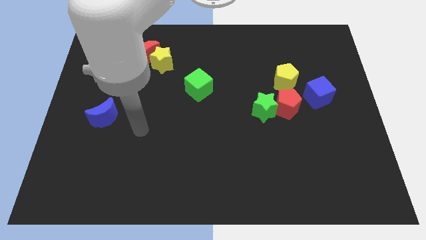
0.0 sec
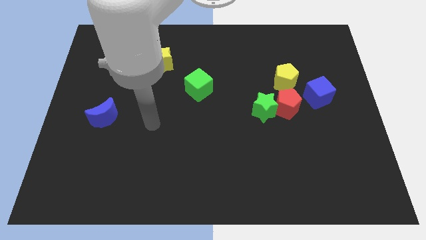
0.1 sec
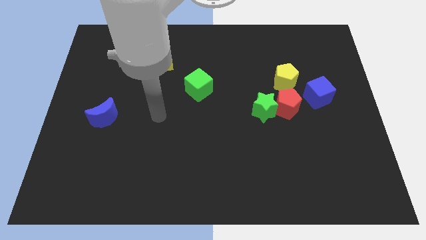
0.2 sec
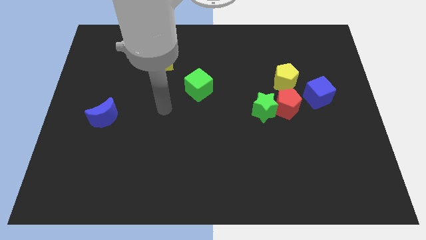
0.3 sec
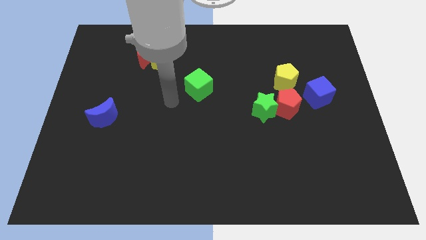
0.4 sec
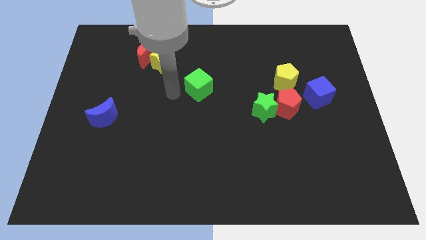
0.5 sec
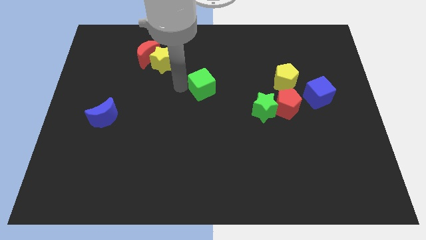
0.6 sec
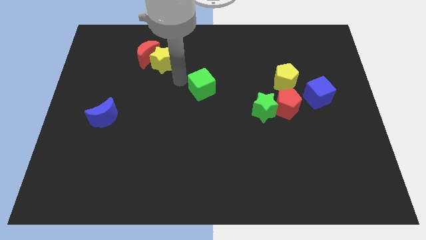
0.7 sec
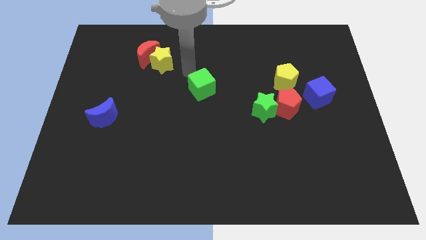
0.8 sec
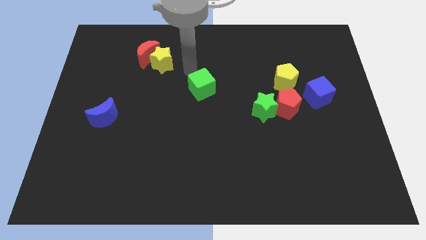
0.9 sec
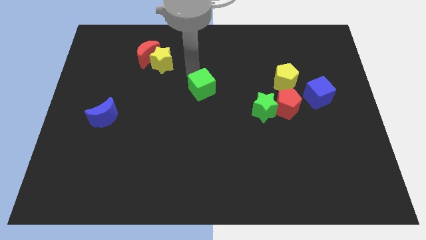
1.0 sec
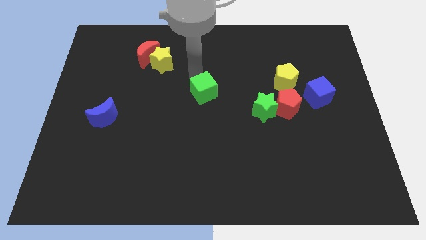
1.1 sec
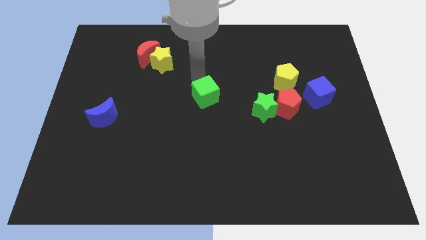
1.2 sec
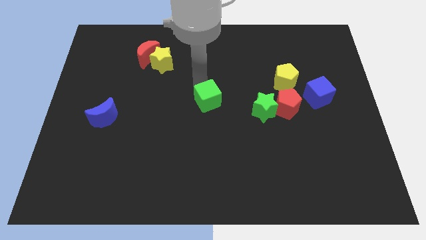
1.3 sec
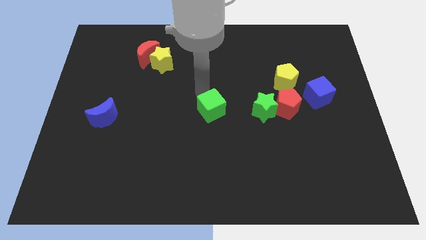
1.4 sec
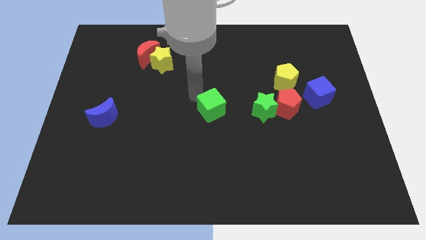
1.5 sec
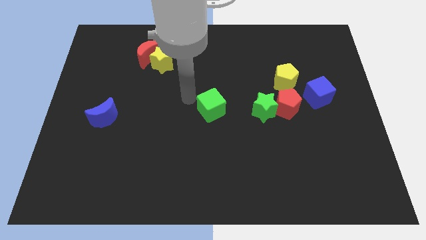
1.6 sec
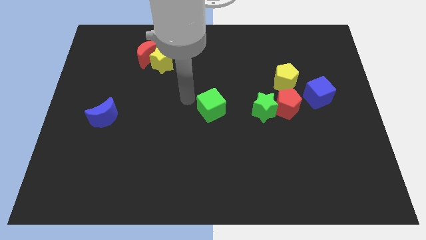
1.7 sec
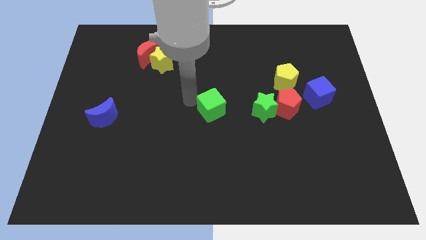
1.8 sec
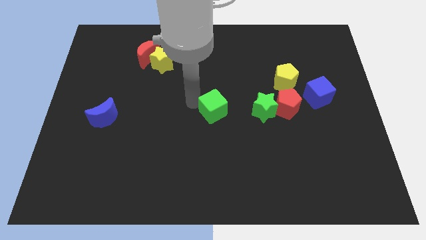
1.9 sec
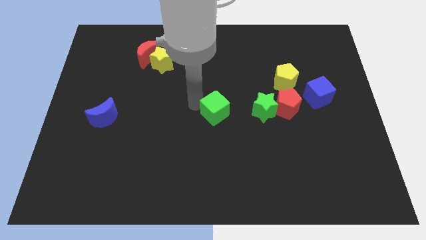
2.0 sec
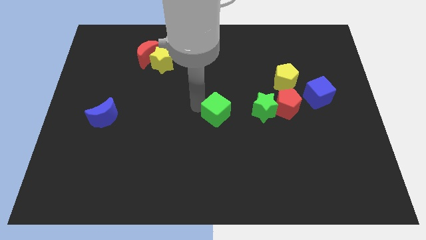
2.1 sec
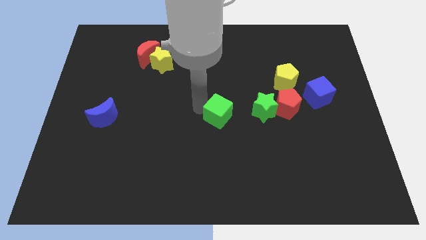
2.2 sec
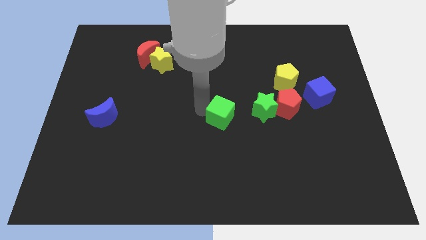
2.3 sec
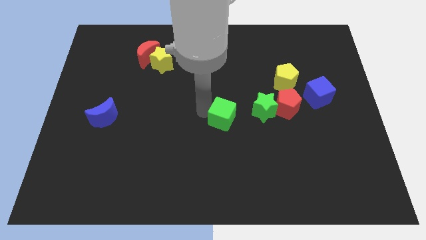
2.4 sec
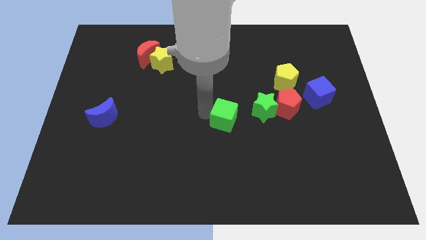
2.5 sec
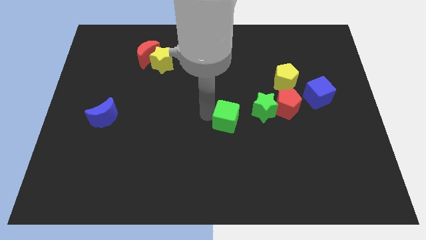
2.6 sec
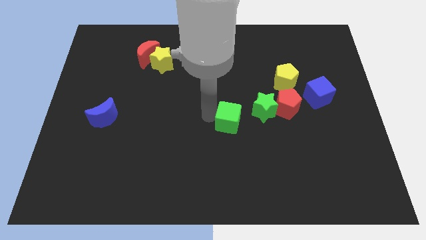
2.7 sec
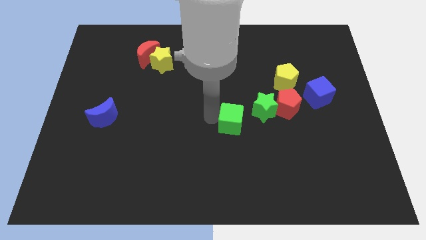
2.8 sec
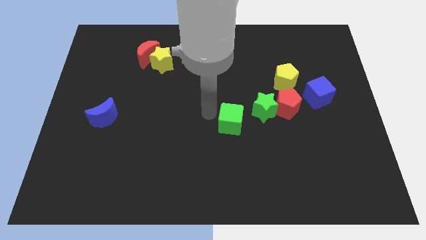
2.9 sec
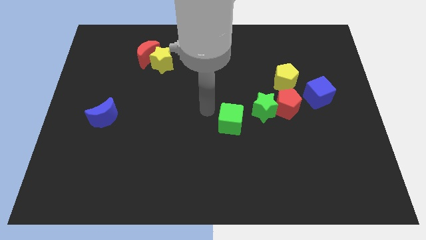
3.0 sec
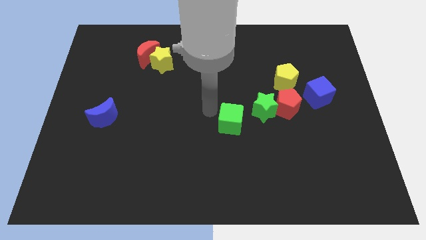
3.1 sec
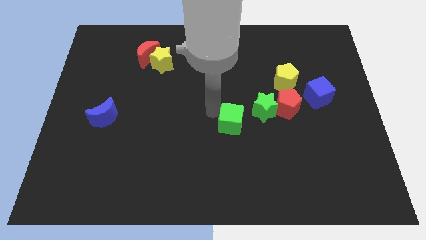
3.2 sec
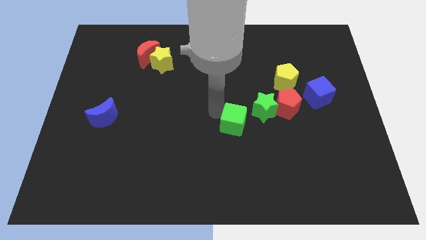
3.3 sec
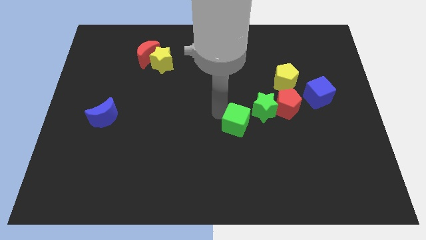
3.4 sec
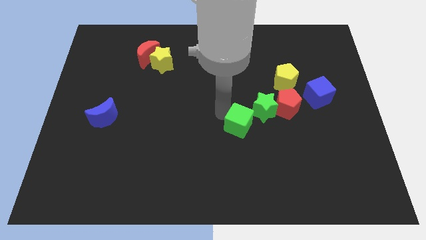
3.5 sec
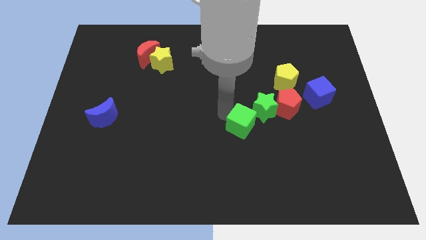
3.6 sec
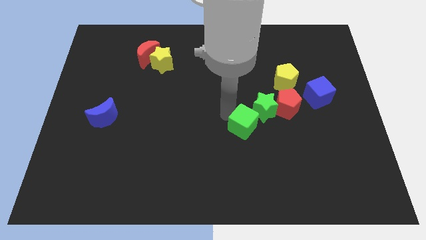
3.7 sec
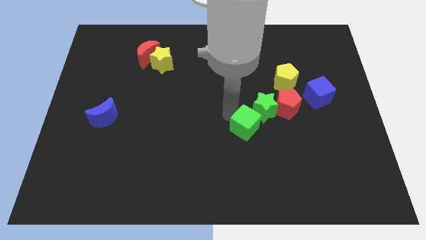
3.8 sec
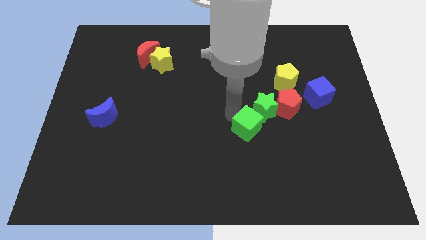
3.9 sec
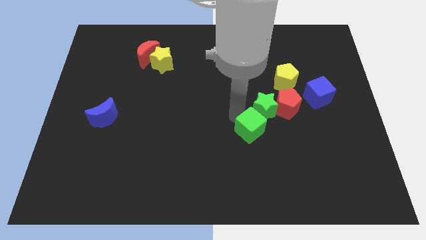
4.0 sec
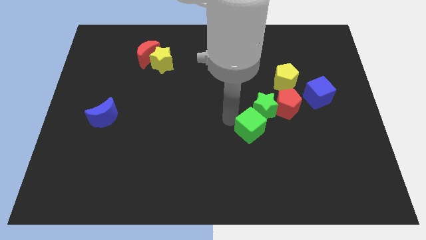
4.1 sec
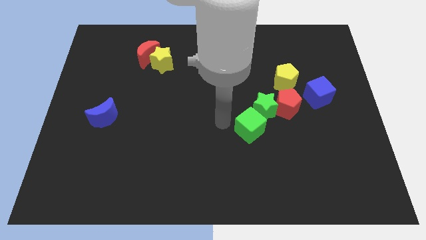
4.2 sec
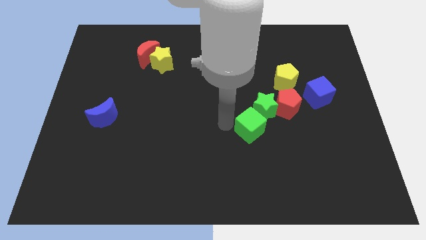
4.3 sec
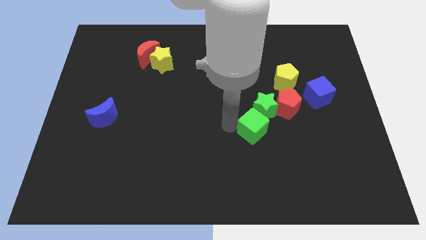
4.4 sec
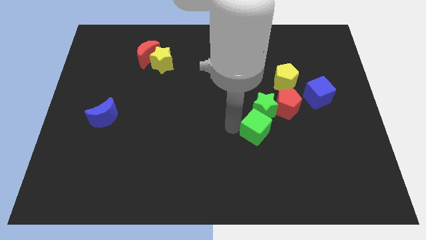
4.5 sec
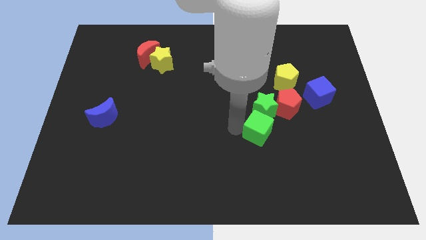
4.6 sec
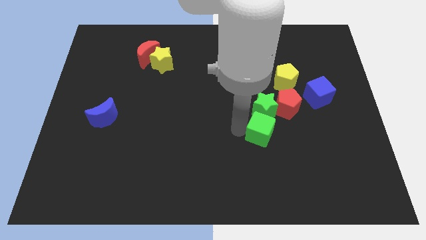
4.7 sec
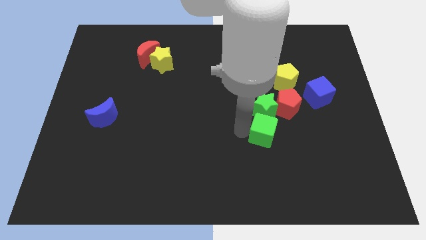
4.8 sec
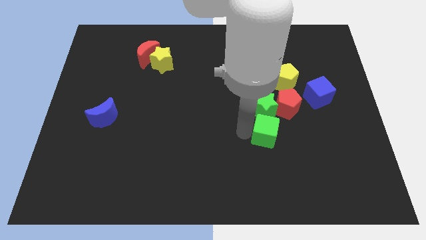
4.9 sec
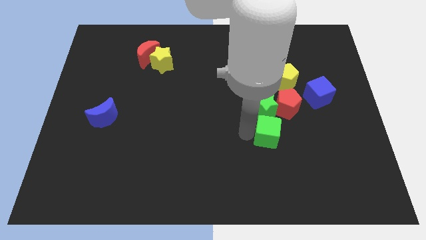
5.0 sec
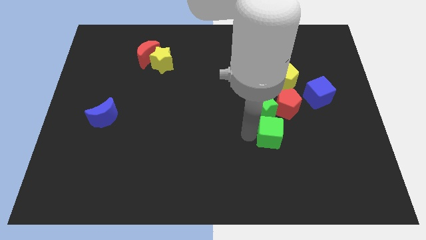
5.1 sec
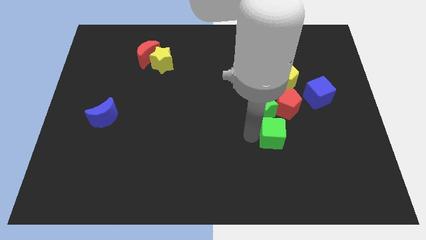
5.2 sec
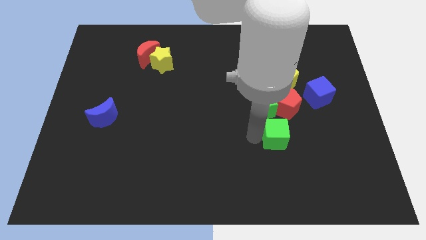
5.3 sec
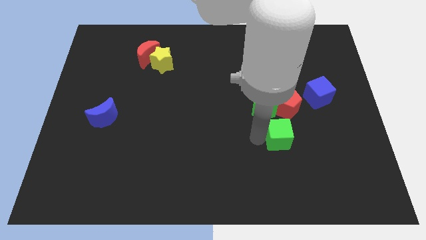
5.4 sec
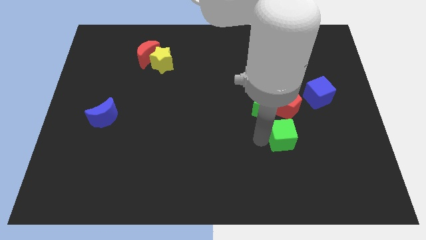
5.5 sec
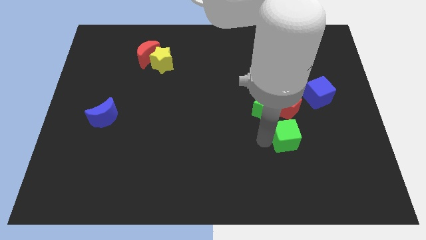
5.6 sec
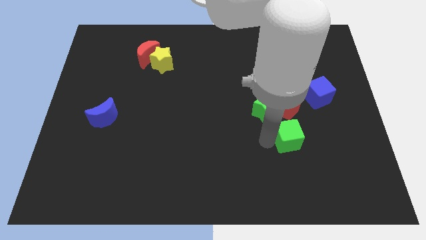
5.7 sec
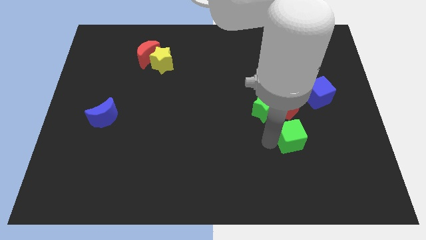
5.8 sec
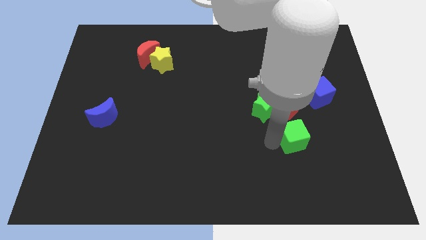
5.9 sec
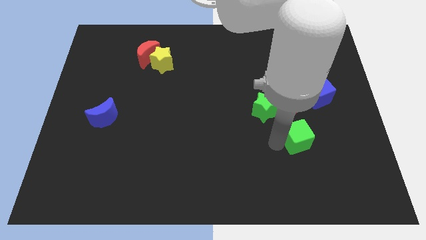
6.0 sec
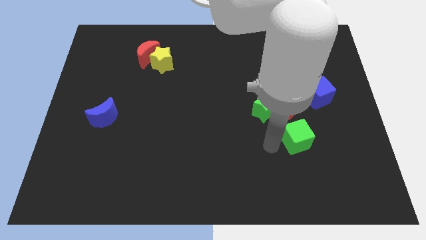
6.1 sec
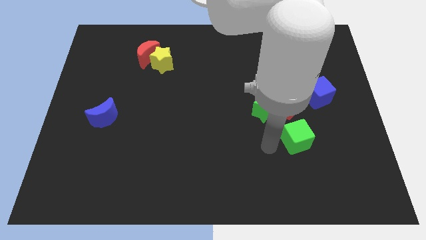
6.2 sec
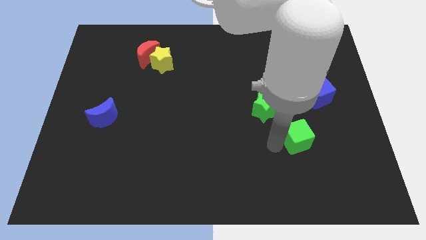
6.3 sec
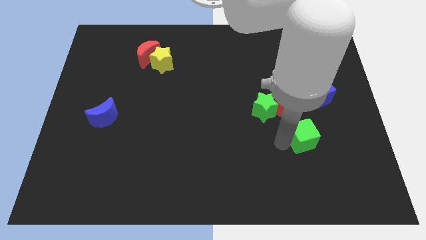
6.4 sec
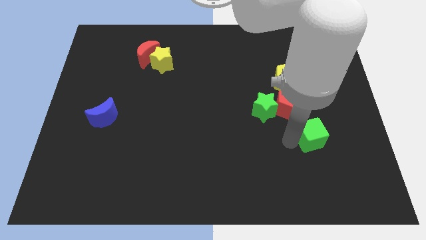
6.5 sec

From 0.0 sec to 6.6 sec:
move the green cube to the bottom of the blue cube

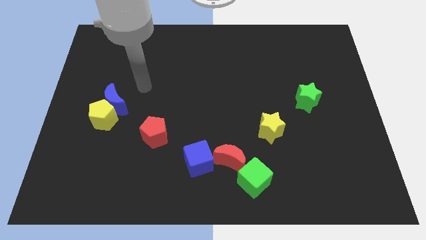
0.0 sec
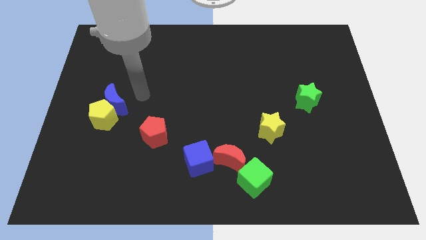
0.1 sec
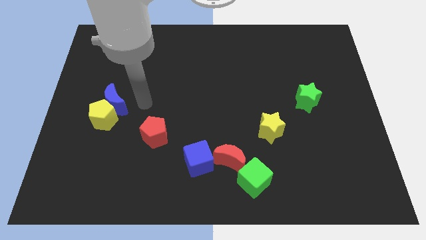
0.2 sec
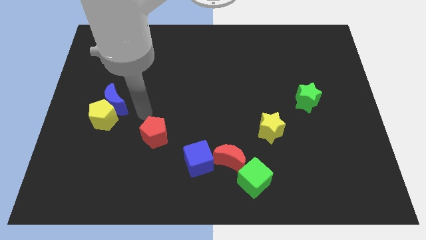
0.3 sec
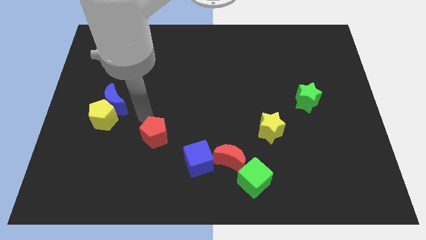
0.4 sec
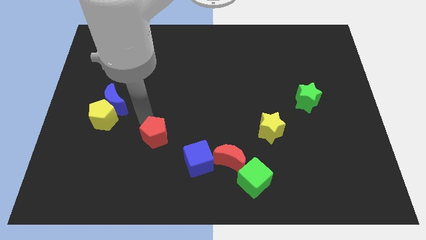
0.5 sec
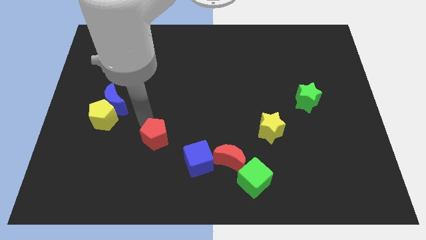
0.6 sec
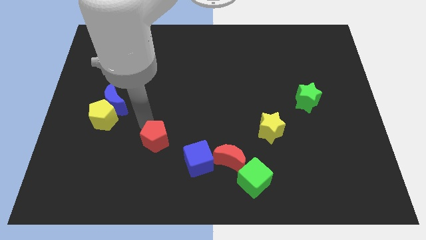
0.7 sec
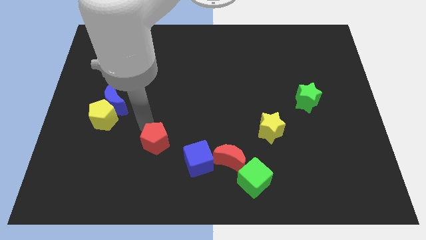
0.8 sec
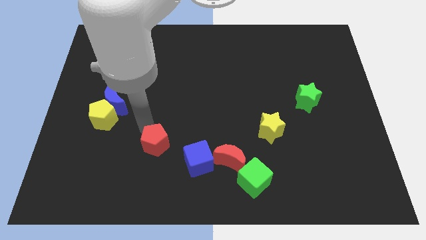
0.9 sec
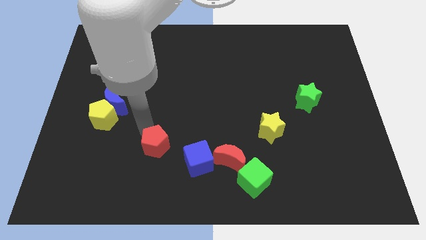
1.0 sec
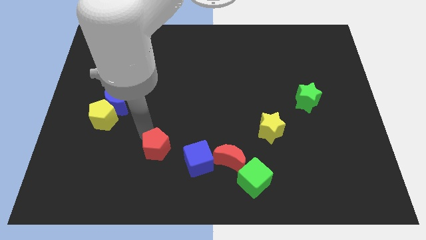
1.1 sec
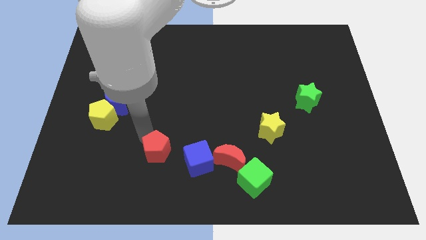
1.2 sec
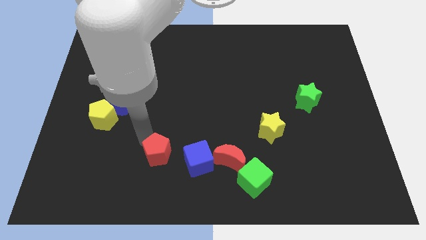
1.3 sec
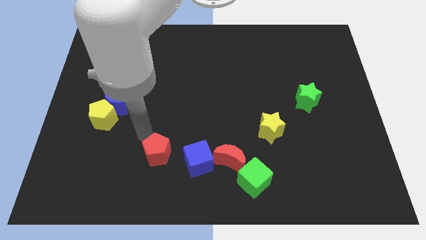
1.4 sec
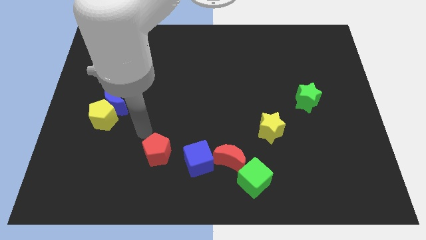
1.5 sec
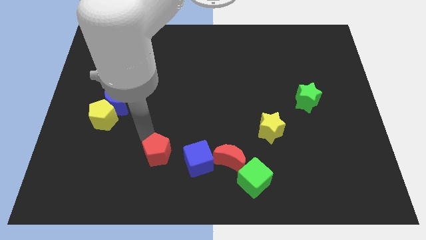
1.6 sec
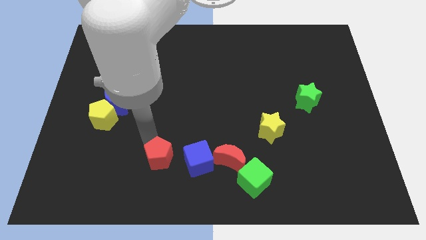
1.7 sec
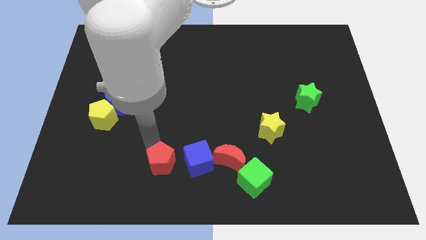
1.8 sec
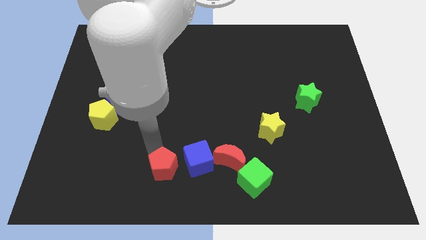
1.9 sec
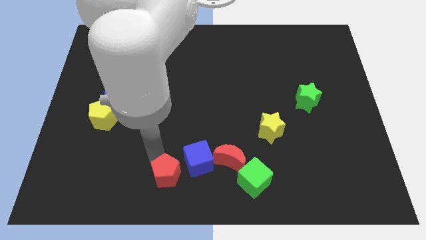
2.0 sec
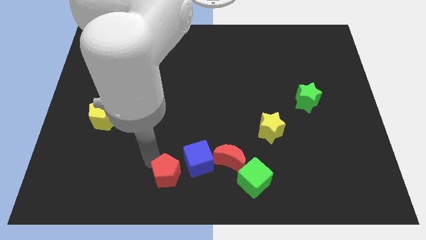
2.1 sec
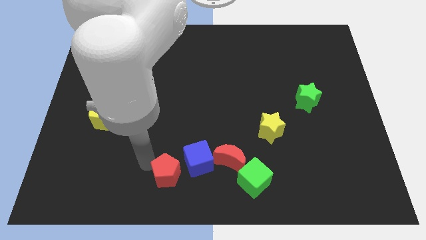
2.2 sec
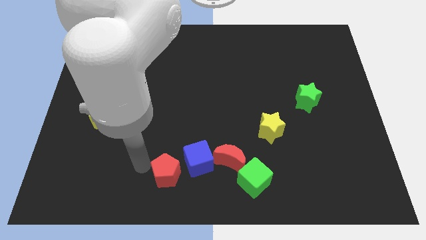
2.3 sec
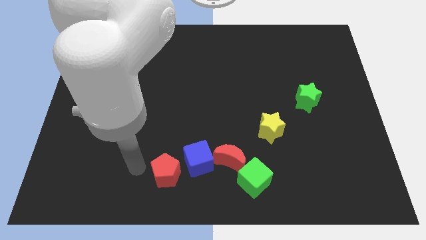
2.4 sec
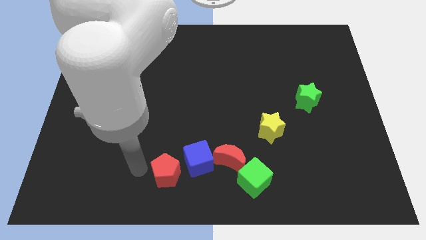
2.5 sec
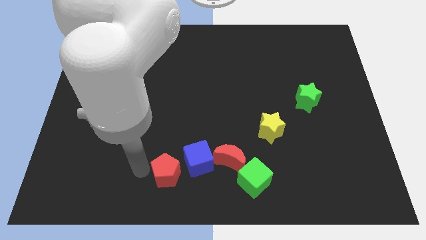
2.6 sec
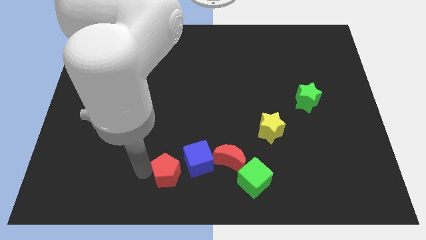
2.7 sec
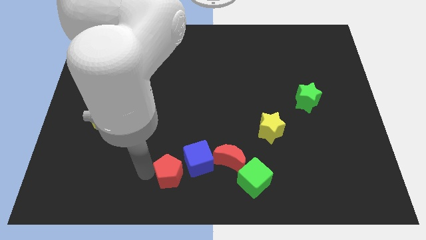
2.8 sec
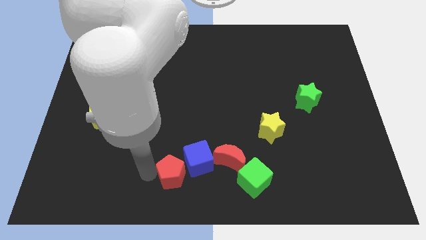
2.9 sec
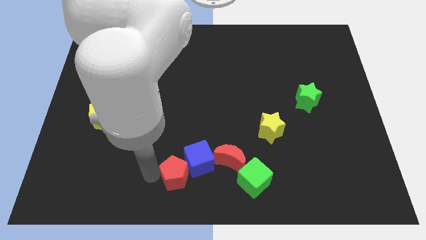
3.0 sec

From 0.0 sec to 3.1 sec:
put the red pentagon to the left side of the green cube
